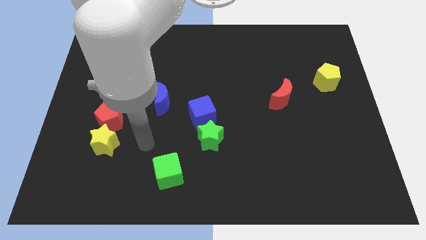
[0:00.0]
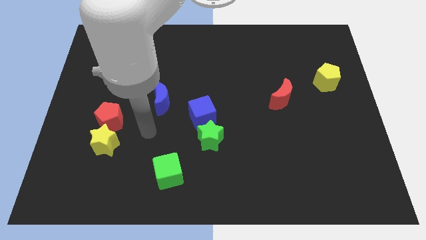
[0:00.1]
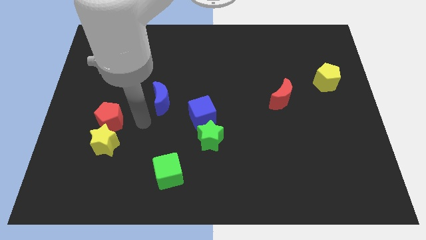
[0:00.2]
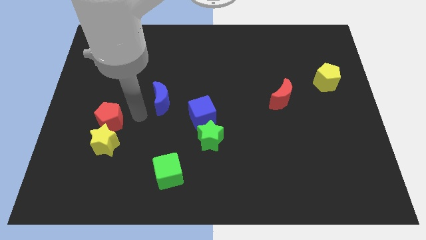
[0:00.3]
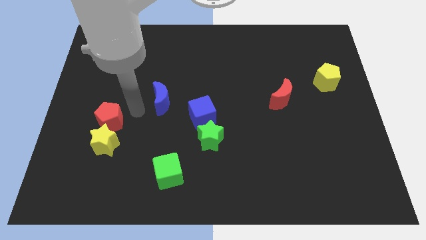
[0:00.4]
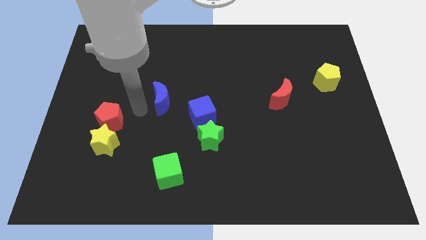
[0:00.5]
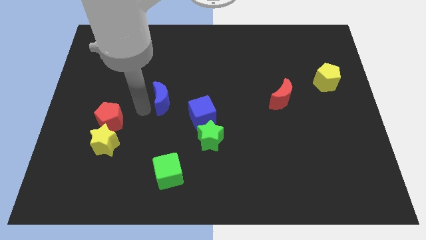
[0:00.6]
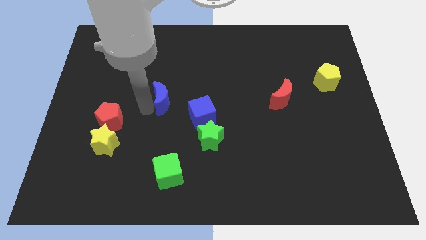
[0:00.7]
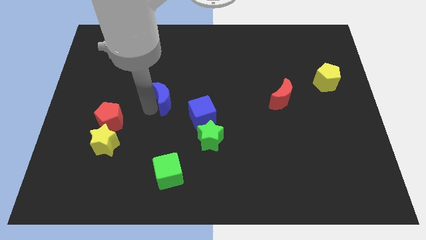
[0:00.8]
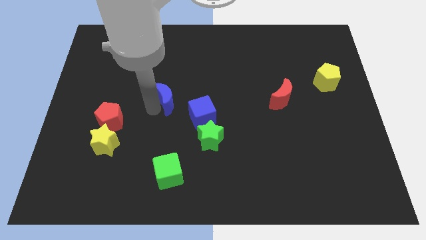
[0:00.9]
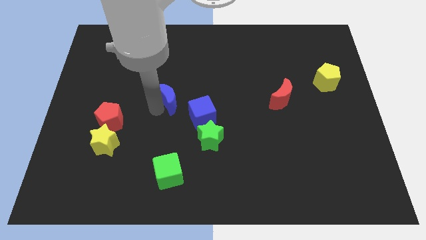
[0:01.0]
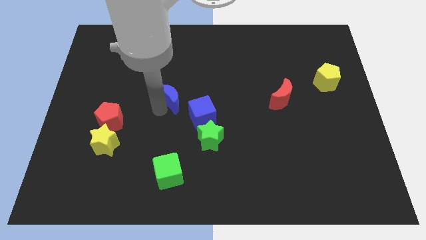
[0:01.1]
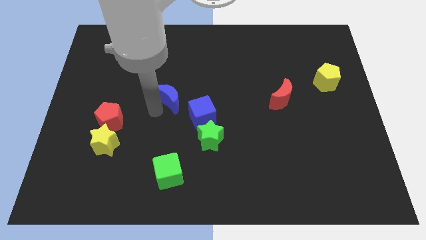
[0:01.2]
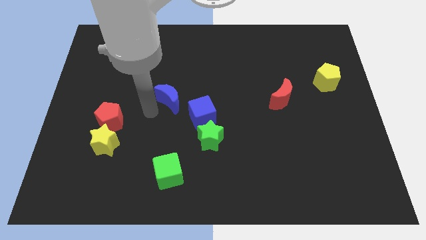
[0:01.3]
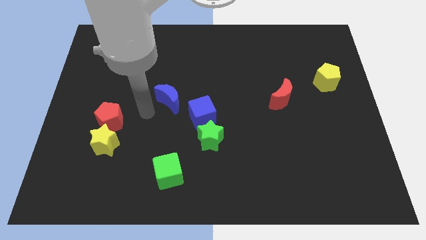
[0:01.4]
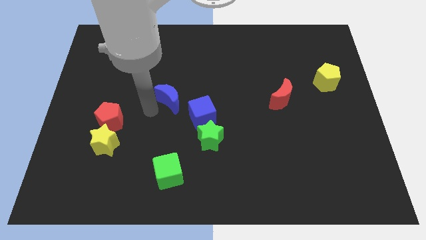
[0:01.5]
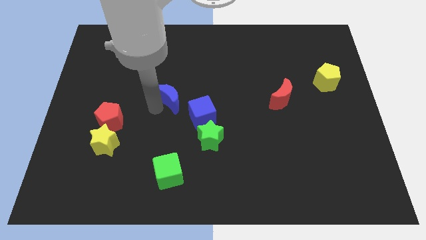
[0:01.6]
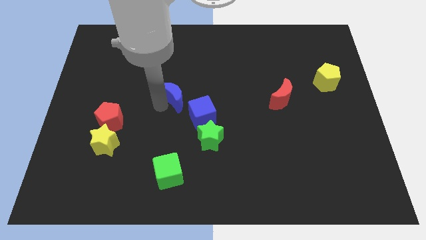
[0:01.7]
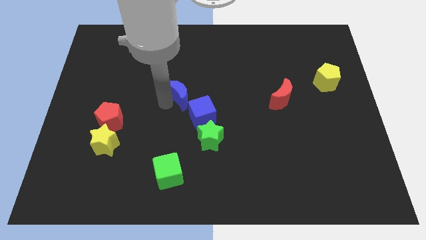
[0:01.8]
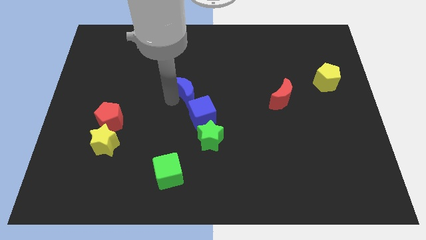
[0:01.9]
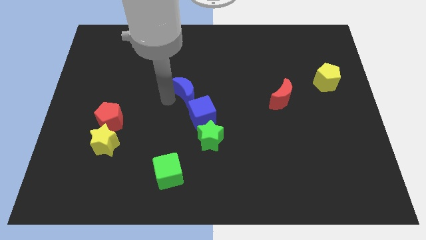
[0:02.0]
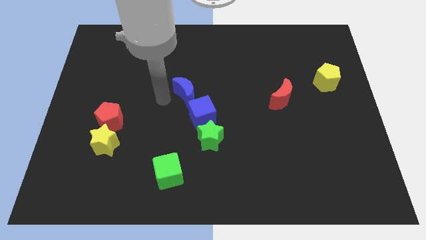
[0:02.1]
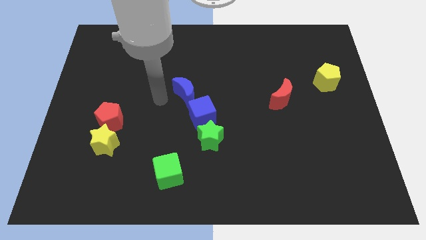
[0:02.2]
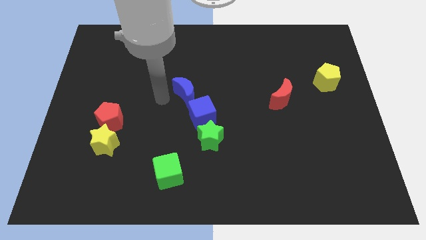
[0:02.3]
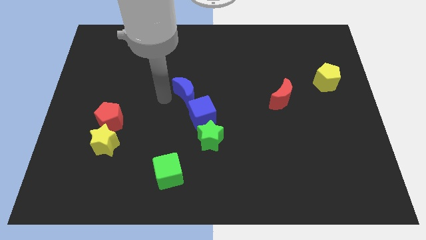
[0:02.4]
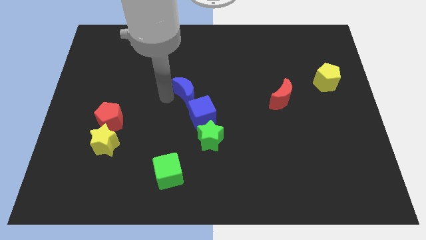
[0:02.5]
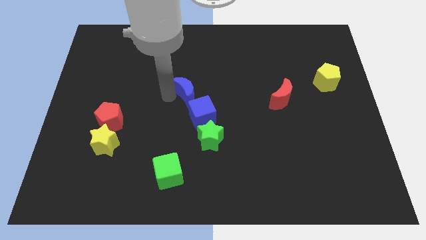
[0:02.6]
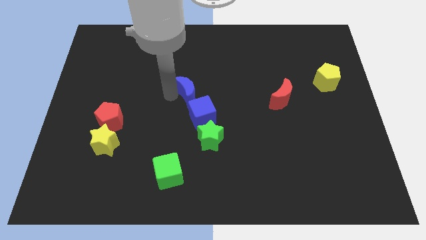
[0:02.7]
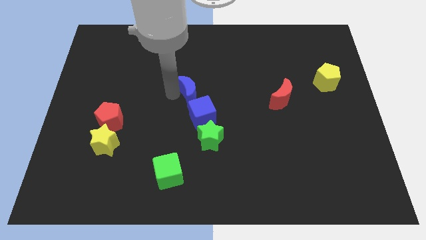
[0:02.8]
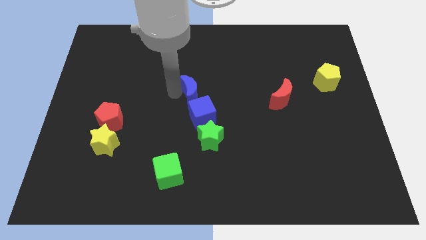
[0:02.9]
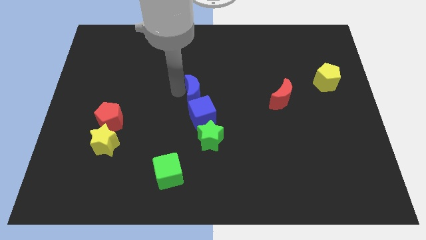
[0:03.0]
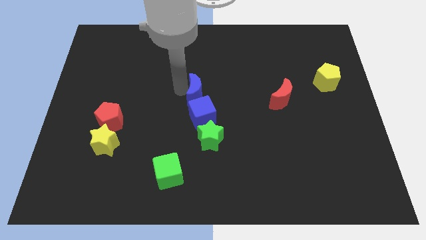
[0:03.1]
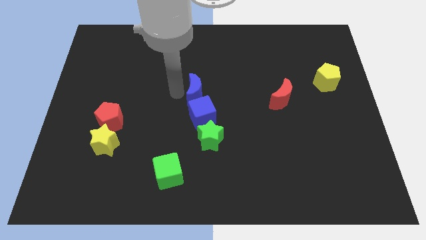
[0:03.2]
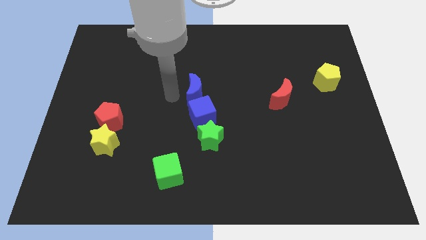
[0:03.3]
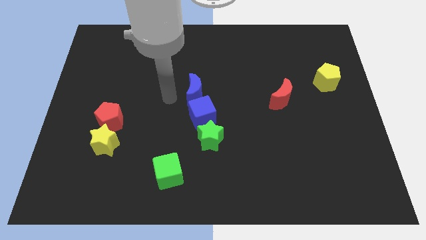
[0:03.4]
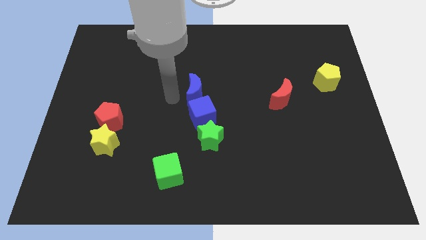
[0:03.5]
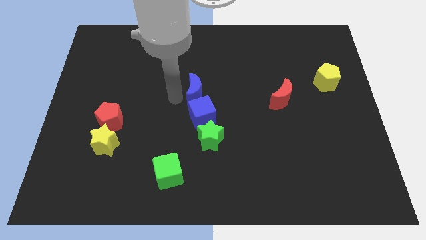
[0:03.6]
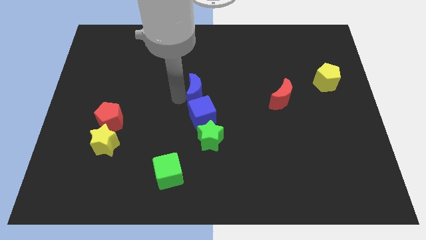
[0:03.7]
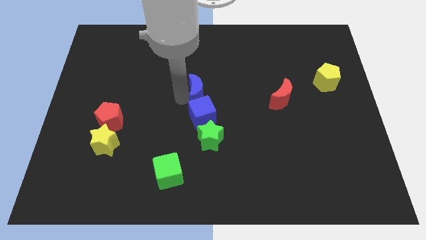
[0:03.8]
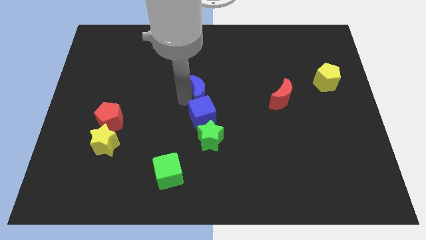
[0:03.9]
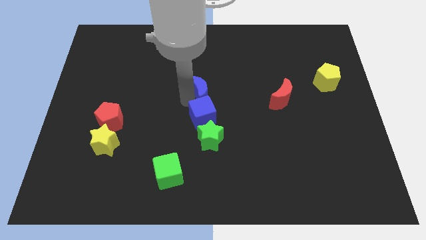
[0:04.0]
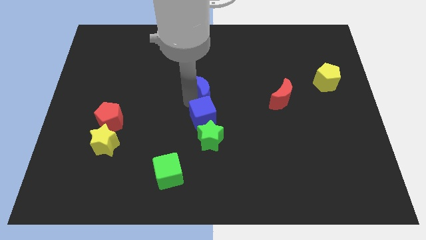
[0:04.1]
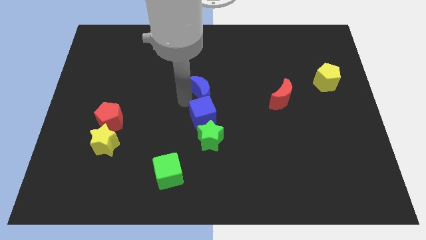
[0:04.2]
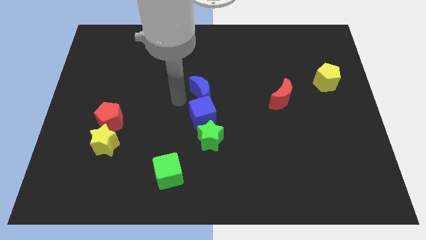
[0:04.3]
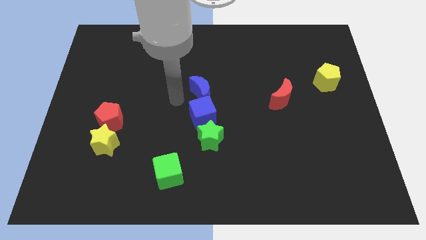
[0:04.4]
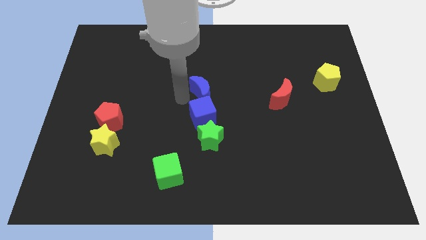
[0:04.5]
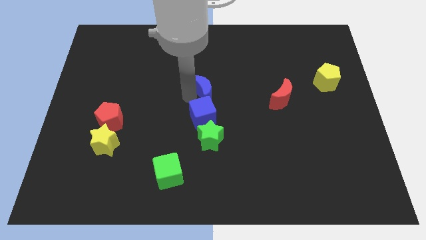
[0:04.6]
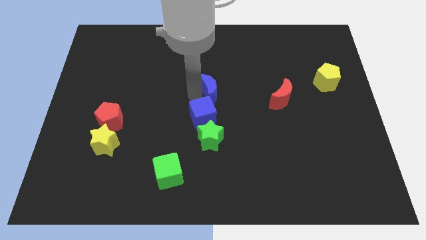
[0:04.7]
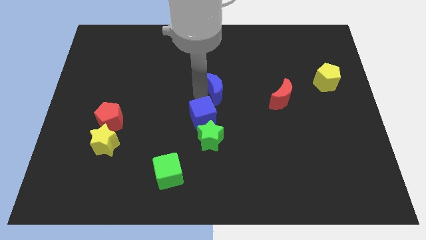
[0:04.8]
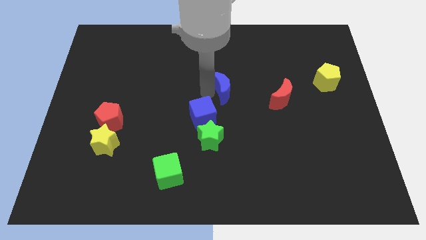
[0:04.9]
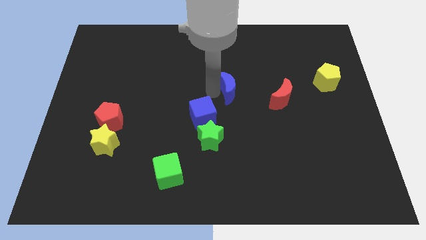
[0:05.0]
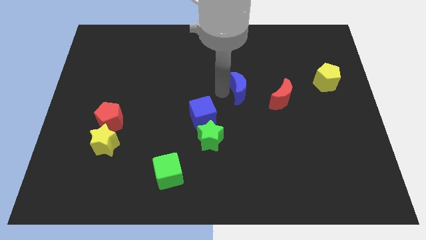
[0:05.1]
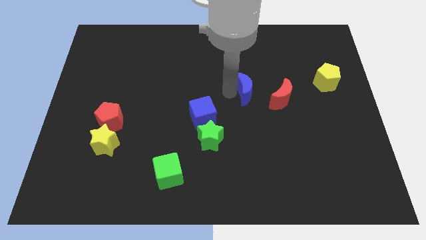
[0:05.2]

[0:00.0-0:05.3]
put the blue moon to the top left of the red moon

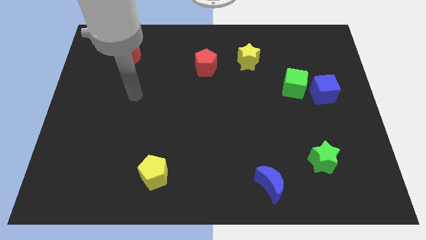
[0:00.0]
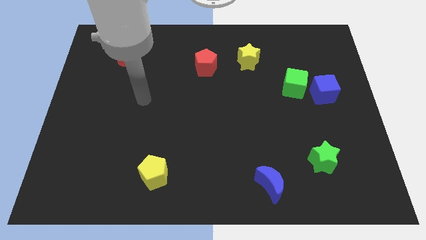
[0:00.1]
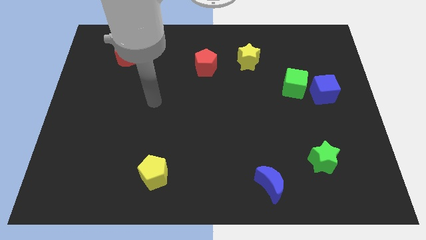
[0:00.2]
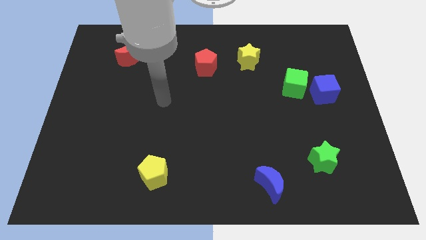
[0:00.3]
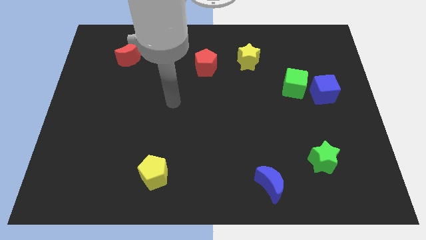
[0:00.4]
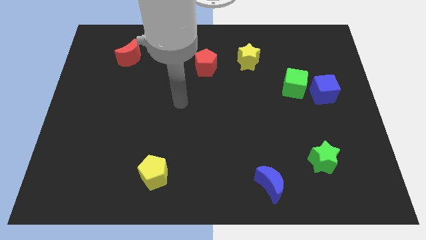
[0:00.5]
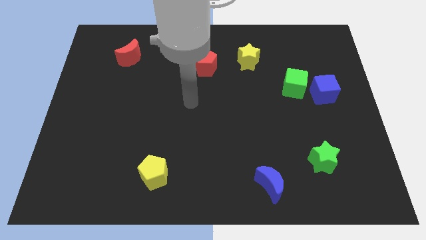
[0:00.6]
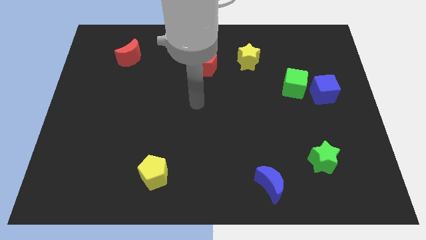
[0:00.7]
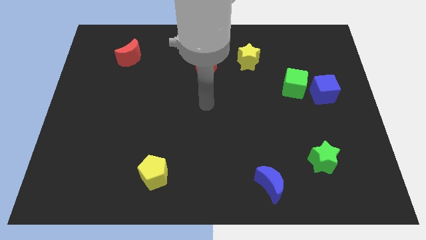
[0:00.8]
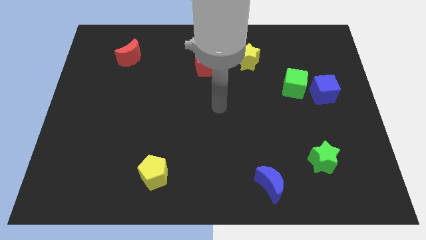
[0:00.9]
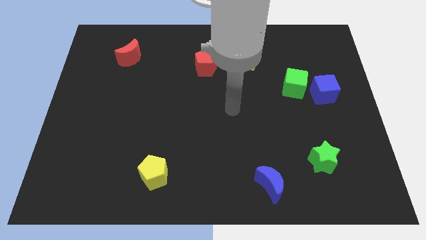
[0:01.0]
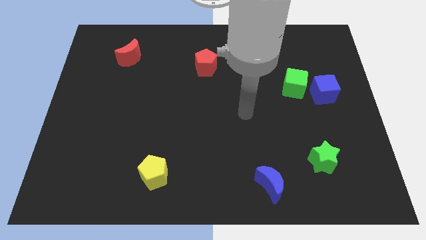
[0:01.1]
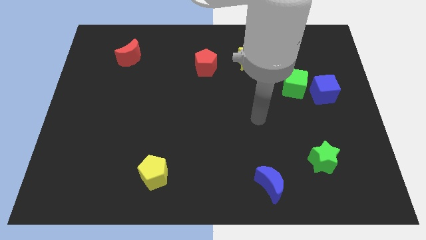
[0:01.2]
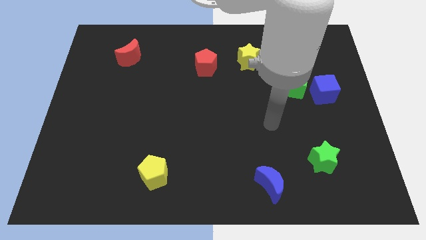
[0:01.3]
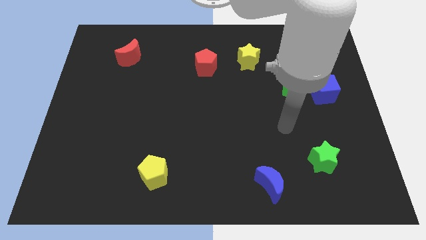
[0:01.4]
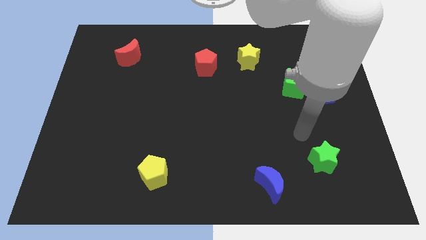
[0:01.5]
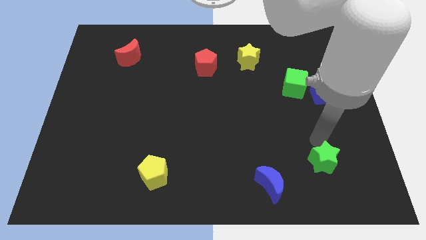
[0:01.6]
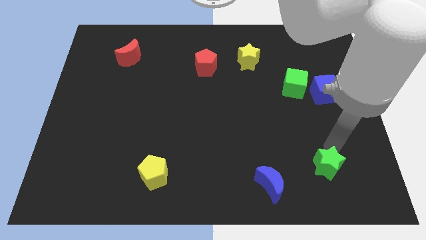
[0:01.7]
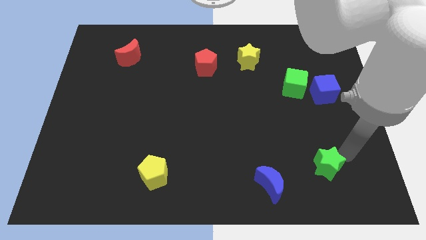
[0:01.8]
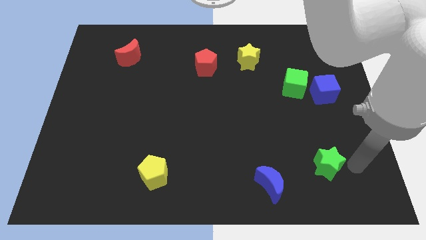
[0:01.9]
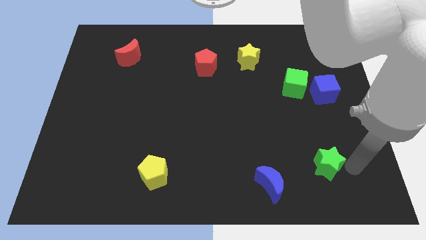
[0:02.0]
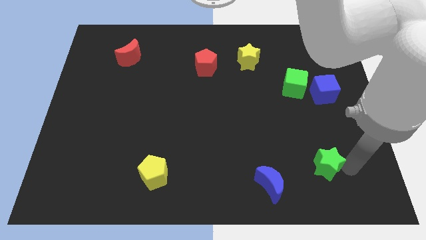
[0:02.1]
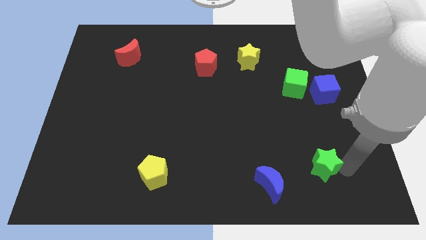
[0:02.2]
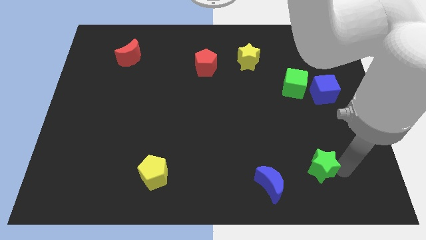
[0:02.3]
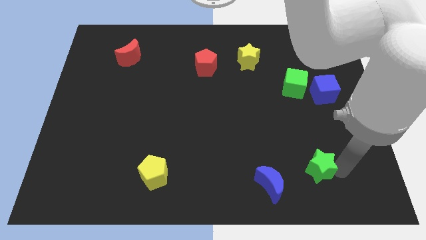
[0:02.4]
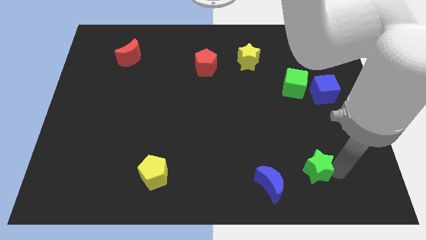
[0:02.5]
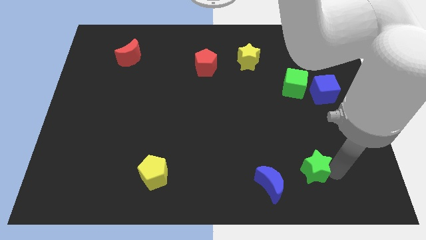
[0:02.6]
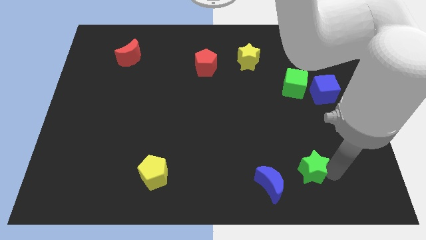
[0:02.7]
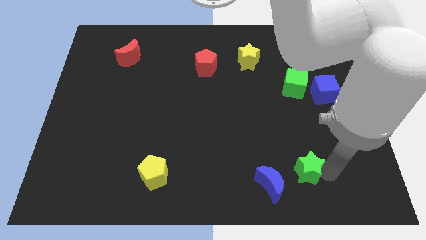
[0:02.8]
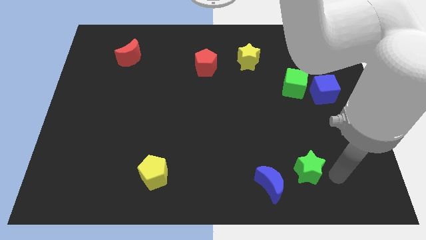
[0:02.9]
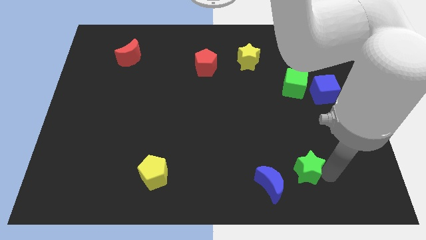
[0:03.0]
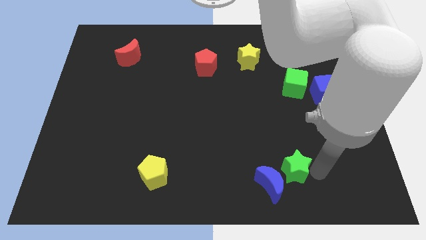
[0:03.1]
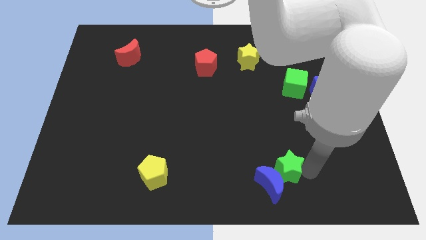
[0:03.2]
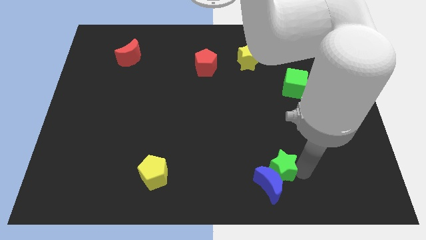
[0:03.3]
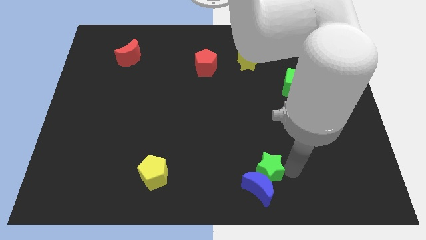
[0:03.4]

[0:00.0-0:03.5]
push the green star to the top left of the blue moon

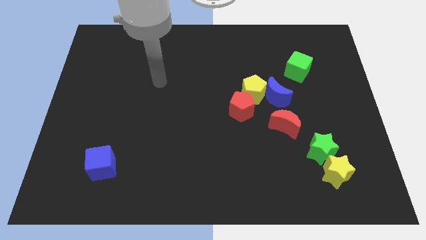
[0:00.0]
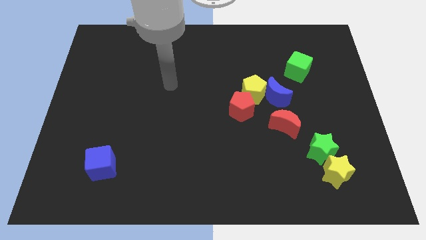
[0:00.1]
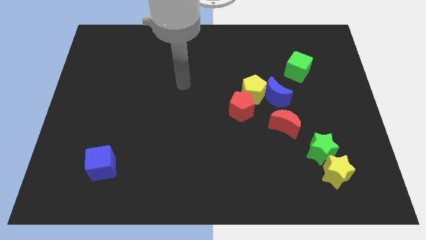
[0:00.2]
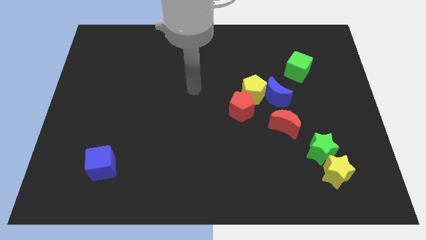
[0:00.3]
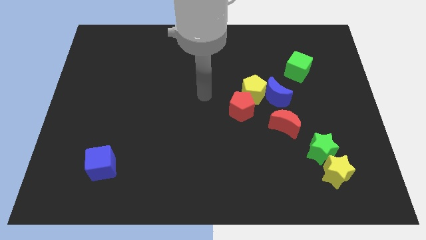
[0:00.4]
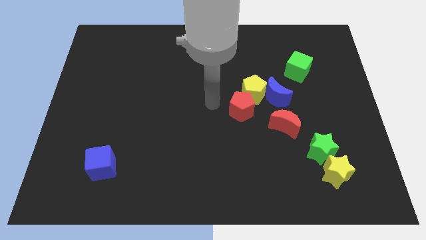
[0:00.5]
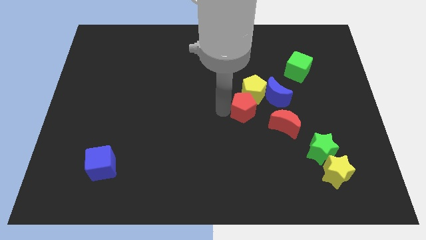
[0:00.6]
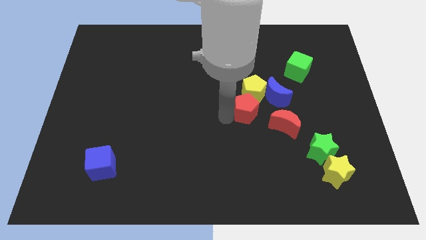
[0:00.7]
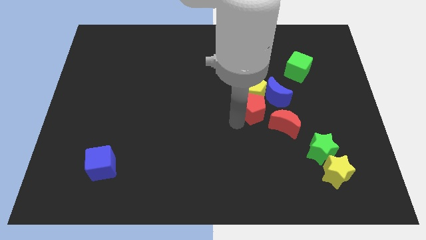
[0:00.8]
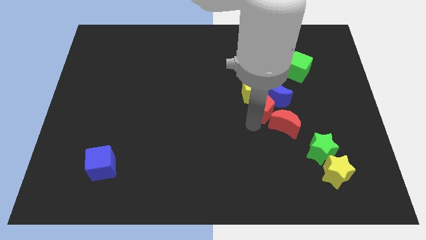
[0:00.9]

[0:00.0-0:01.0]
push the blue moon above the red pentagon
